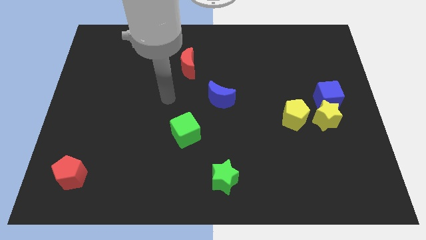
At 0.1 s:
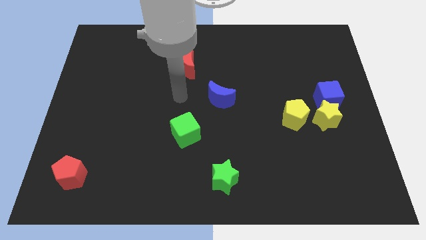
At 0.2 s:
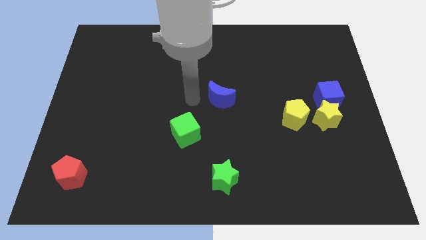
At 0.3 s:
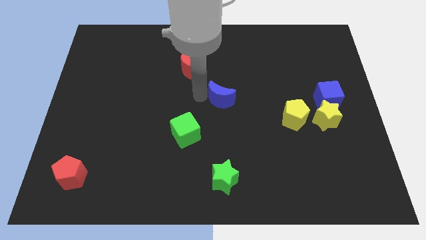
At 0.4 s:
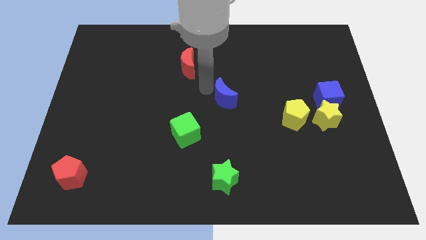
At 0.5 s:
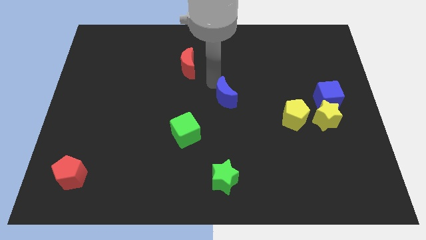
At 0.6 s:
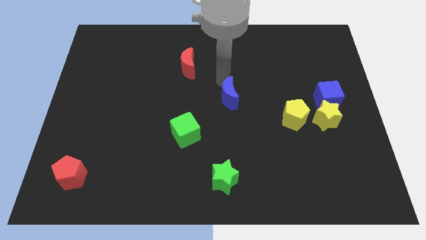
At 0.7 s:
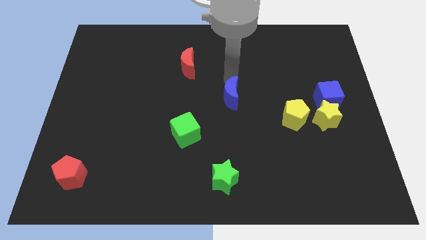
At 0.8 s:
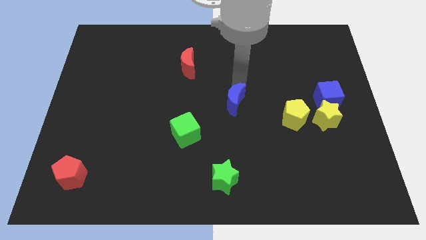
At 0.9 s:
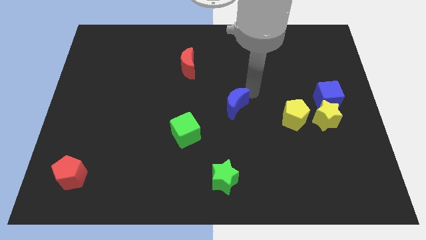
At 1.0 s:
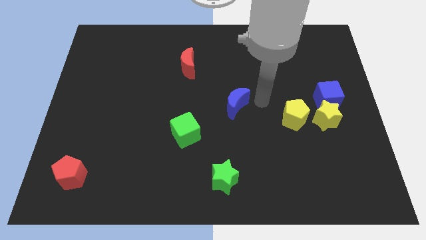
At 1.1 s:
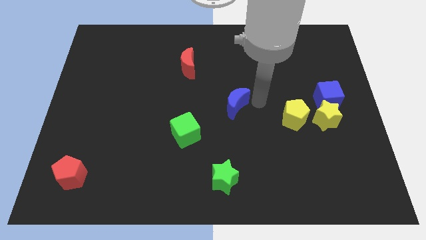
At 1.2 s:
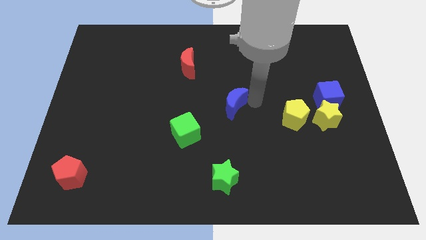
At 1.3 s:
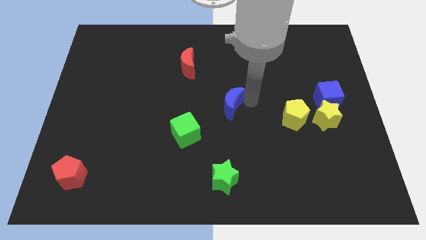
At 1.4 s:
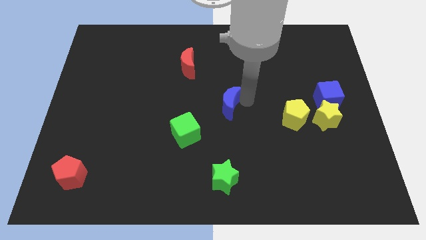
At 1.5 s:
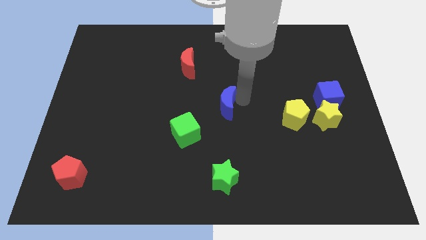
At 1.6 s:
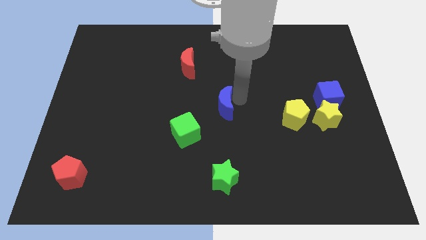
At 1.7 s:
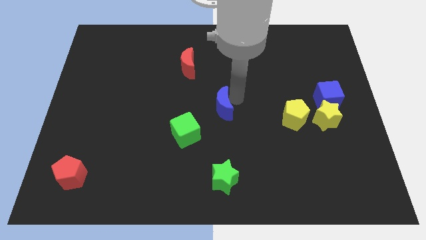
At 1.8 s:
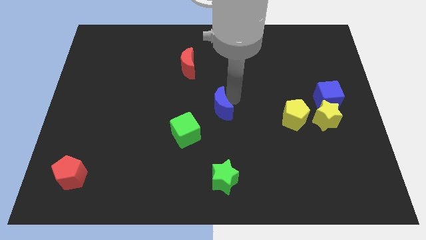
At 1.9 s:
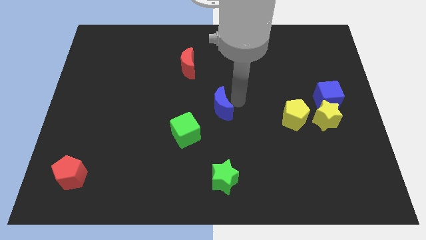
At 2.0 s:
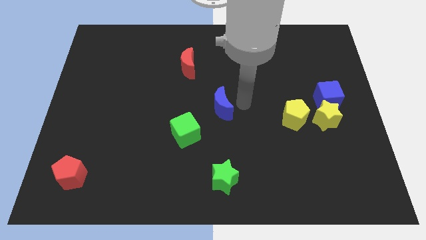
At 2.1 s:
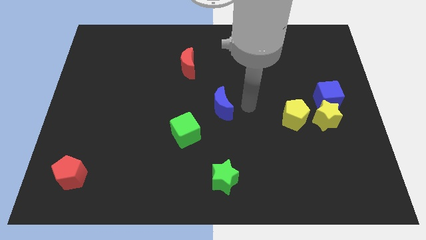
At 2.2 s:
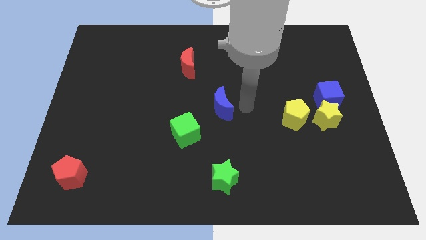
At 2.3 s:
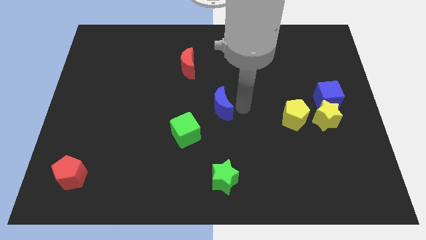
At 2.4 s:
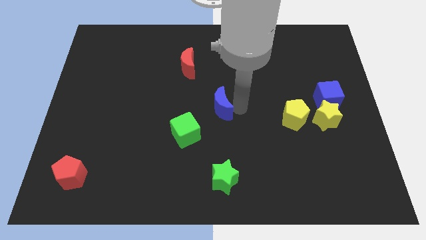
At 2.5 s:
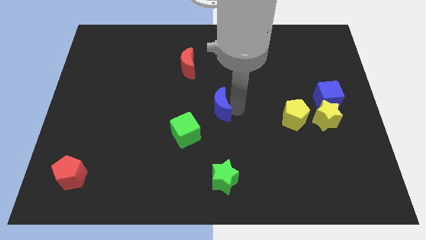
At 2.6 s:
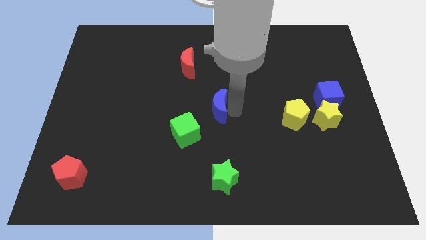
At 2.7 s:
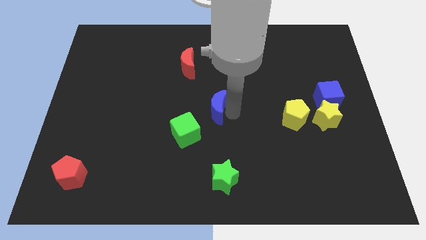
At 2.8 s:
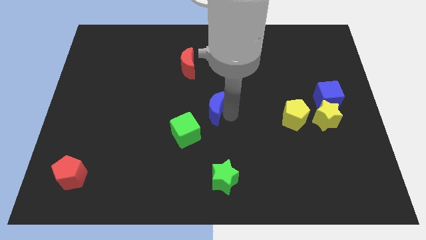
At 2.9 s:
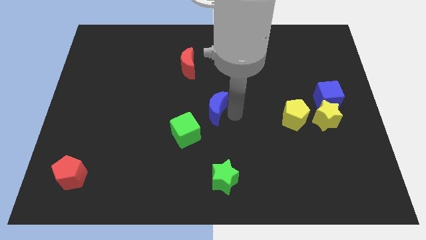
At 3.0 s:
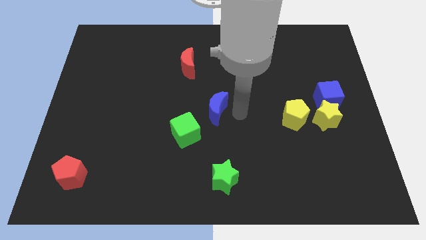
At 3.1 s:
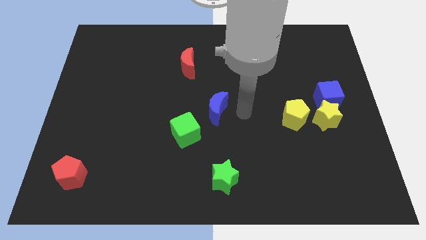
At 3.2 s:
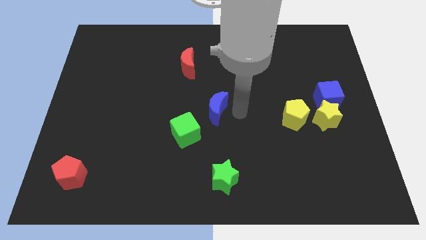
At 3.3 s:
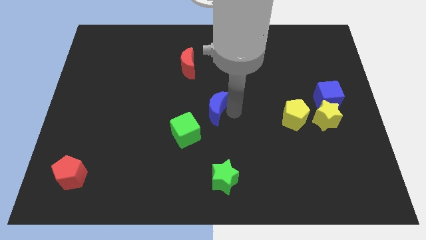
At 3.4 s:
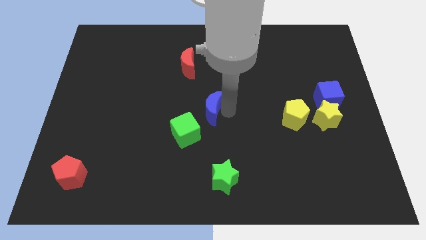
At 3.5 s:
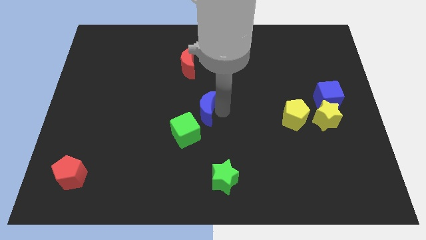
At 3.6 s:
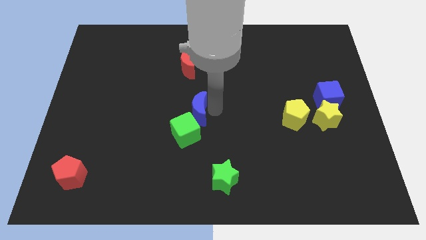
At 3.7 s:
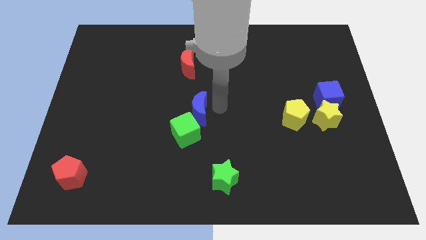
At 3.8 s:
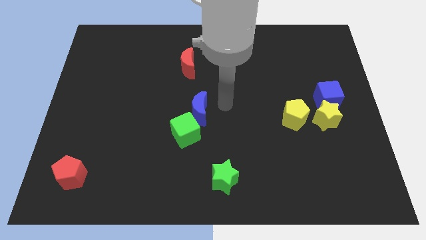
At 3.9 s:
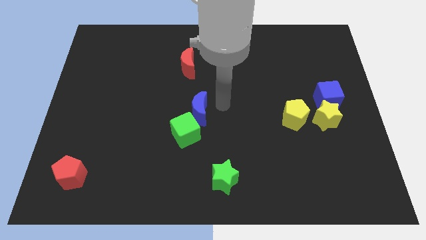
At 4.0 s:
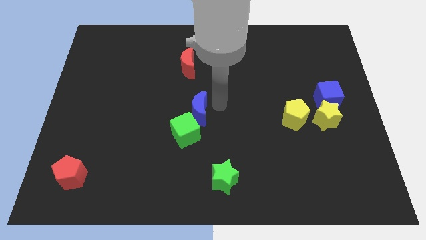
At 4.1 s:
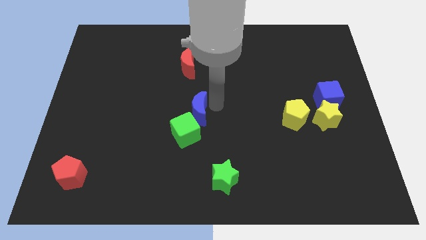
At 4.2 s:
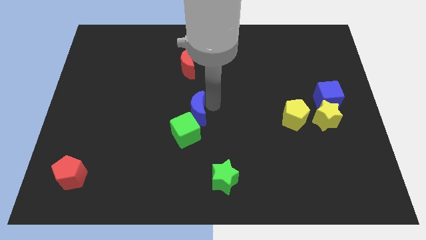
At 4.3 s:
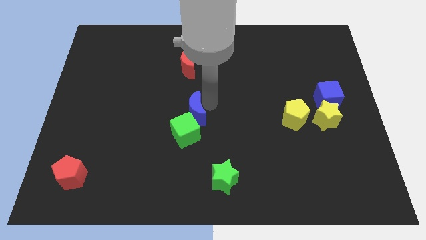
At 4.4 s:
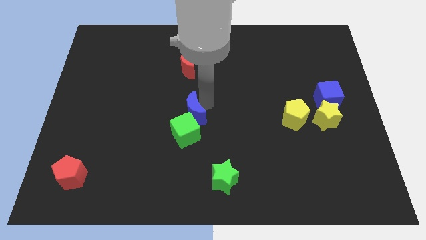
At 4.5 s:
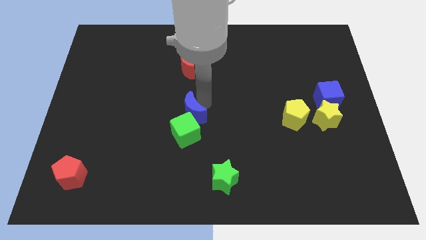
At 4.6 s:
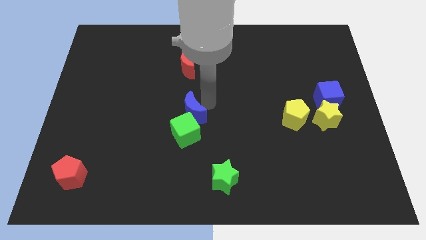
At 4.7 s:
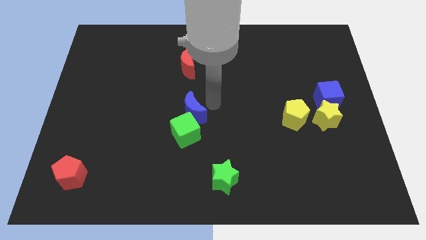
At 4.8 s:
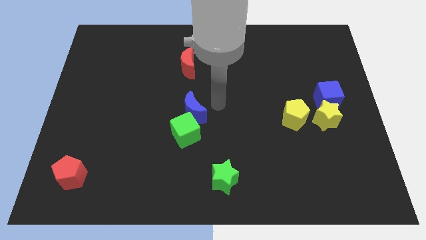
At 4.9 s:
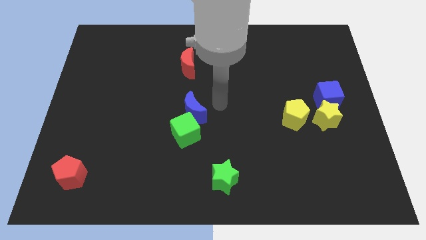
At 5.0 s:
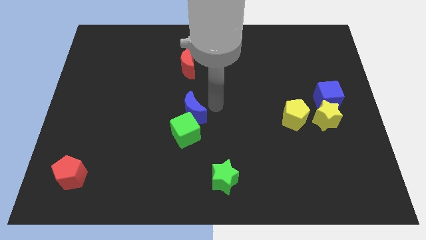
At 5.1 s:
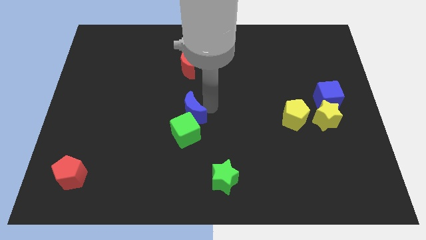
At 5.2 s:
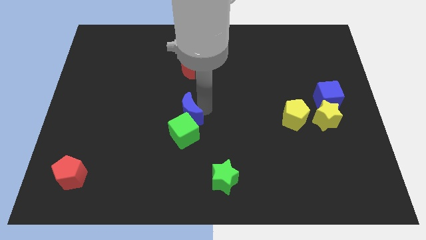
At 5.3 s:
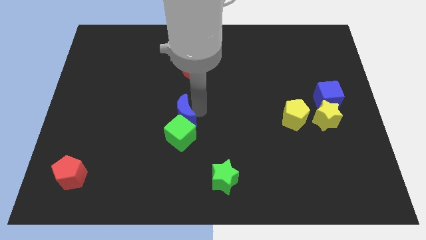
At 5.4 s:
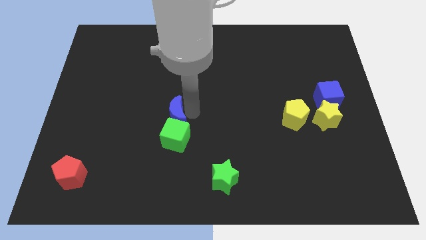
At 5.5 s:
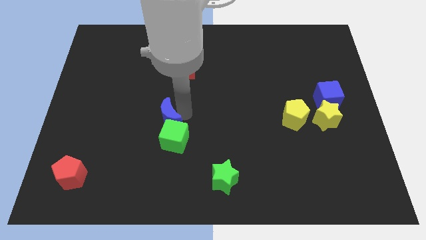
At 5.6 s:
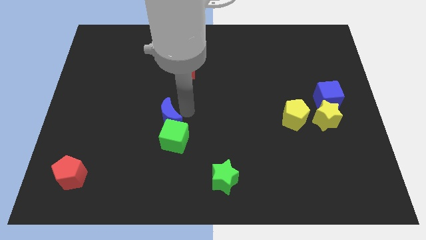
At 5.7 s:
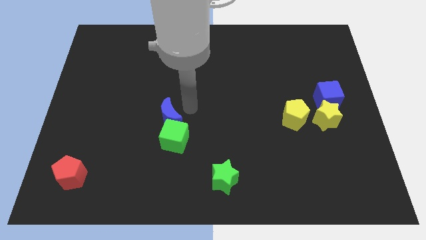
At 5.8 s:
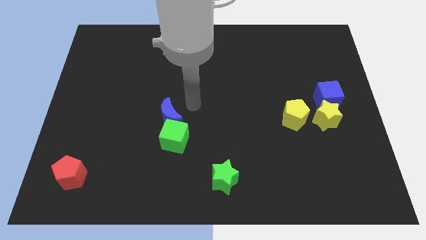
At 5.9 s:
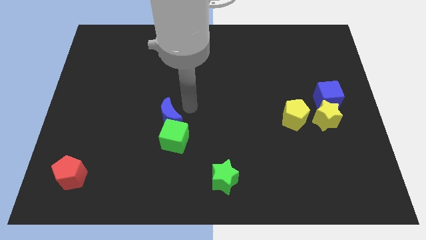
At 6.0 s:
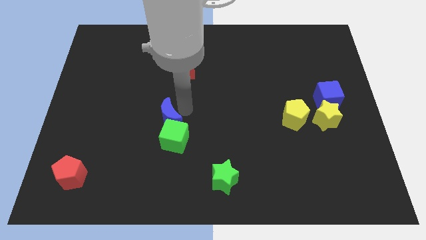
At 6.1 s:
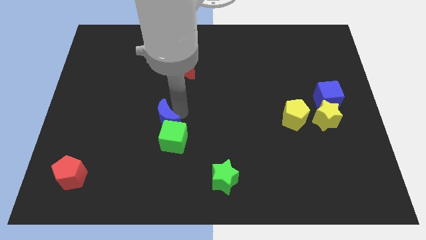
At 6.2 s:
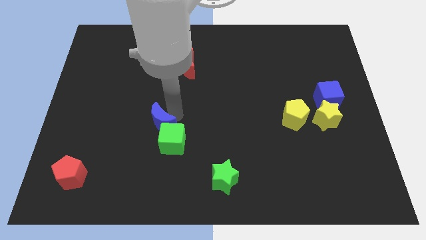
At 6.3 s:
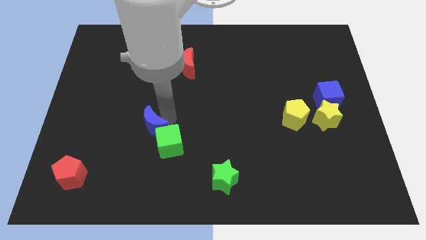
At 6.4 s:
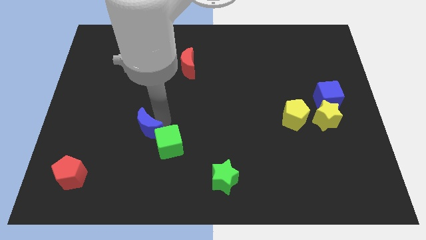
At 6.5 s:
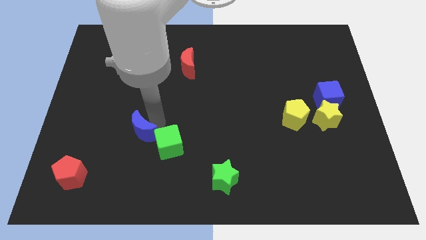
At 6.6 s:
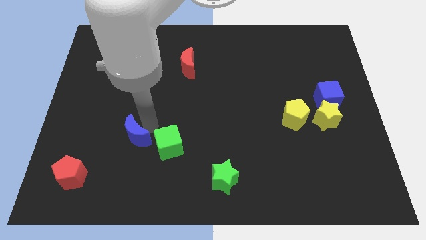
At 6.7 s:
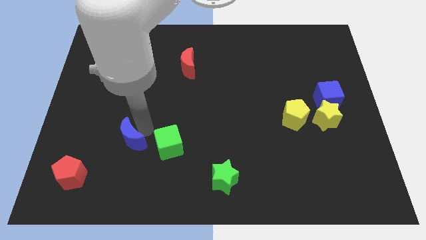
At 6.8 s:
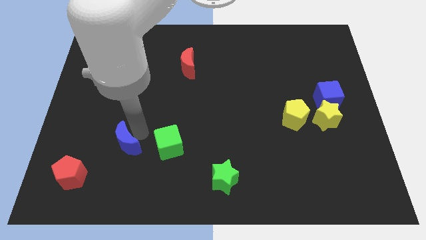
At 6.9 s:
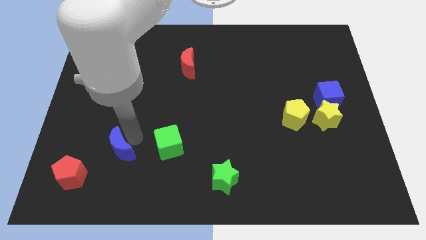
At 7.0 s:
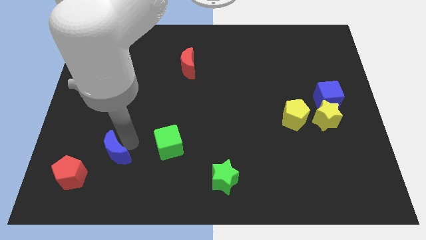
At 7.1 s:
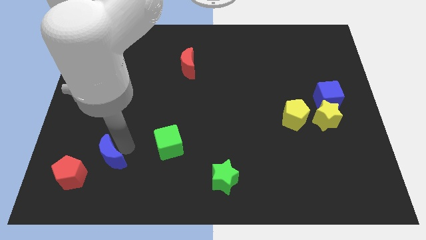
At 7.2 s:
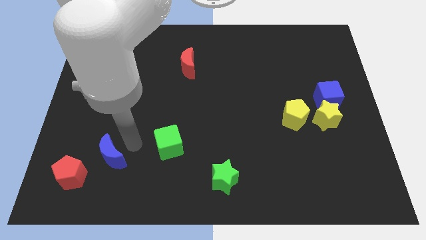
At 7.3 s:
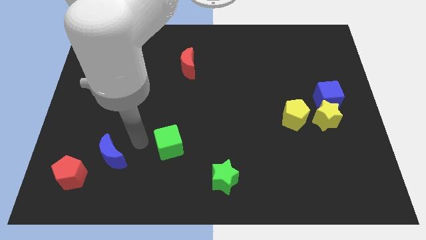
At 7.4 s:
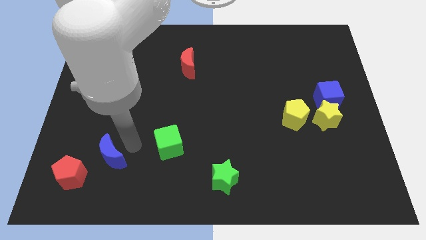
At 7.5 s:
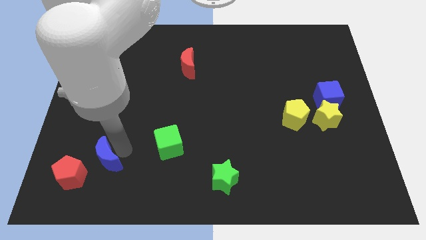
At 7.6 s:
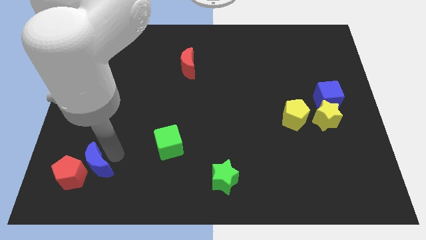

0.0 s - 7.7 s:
put the blue moon next to the red pentagon

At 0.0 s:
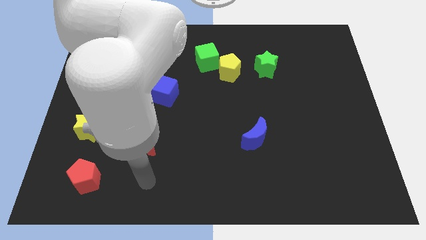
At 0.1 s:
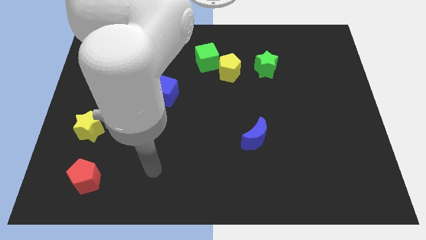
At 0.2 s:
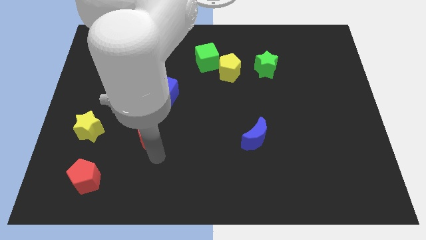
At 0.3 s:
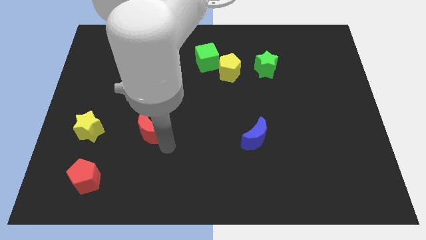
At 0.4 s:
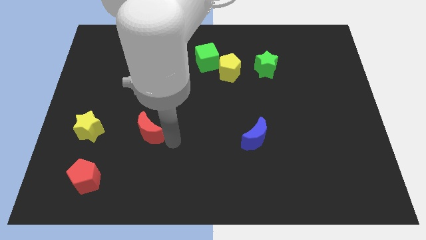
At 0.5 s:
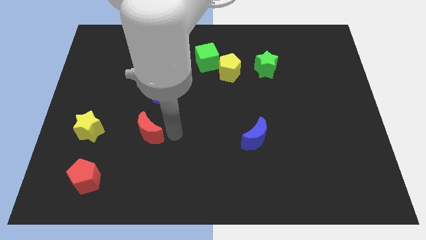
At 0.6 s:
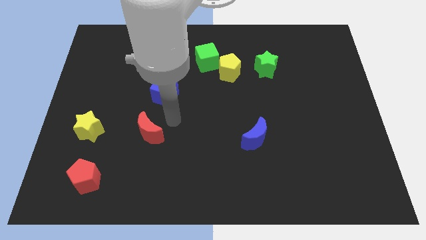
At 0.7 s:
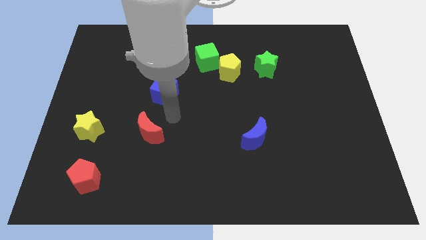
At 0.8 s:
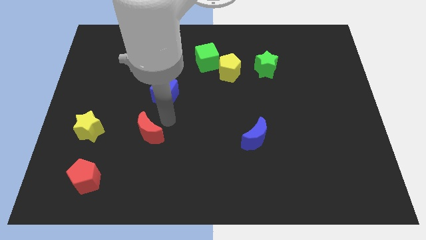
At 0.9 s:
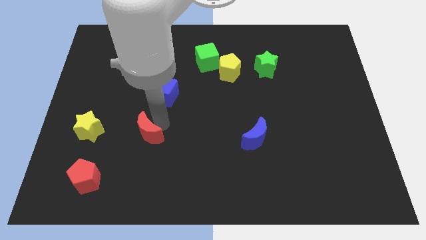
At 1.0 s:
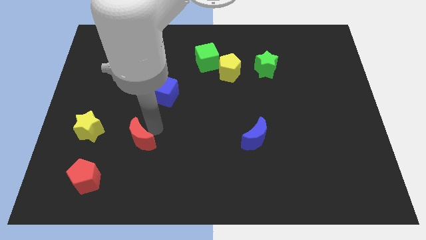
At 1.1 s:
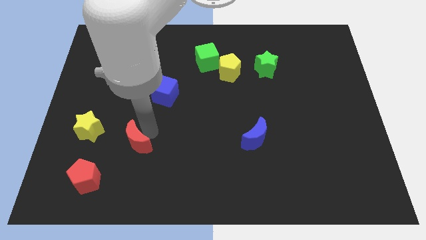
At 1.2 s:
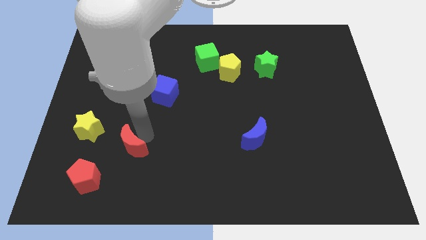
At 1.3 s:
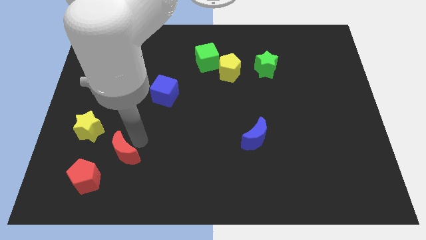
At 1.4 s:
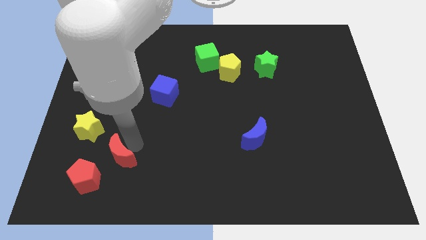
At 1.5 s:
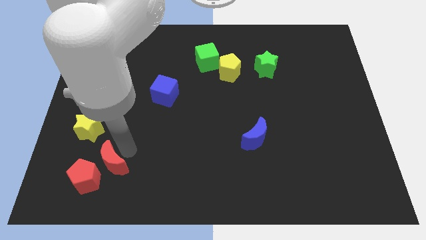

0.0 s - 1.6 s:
push the red moon towards the red pentagon
